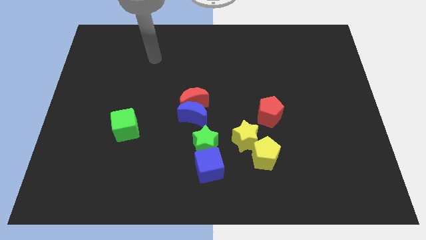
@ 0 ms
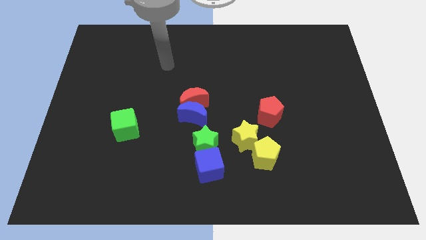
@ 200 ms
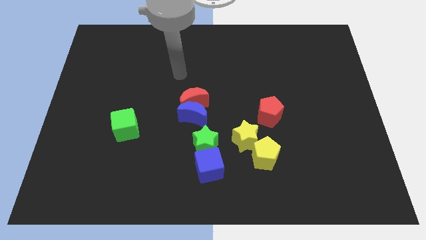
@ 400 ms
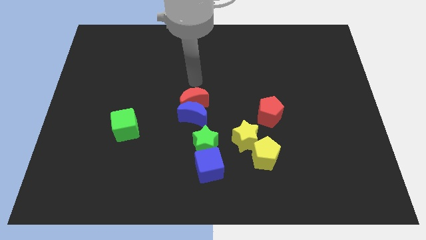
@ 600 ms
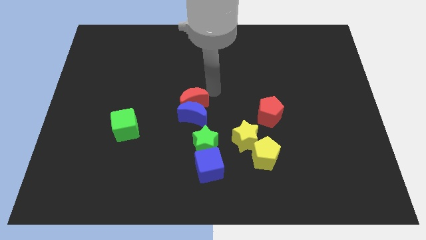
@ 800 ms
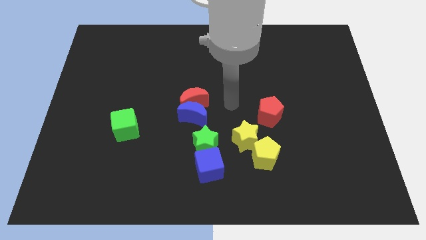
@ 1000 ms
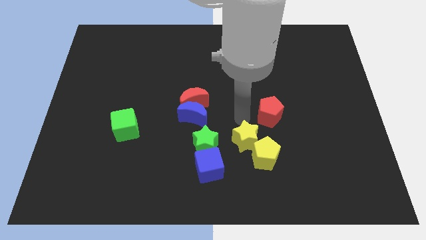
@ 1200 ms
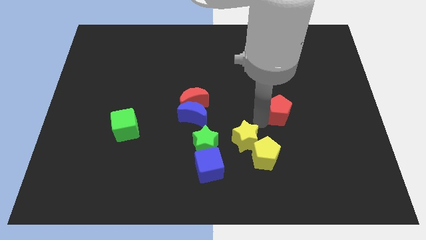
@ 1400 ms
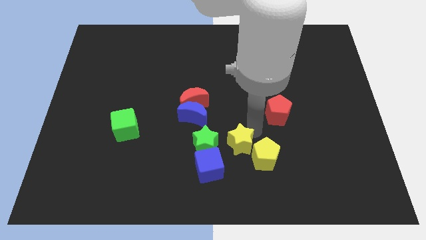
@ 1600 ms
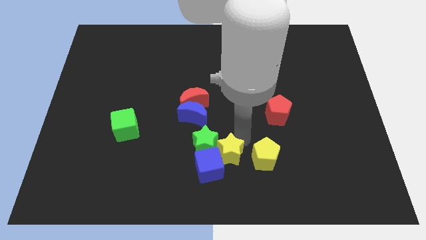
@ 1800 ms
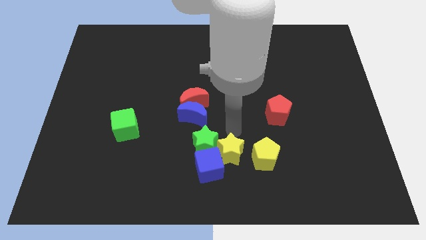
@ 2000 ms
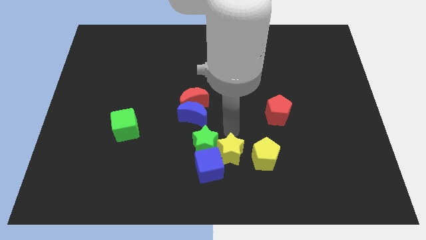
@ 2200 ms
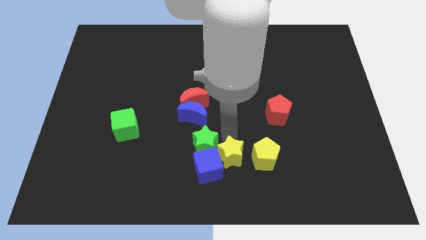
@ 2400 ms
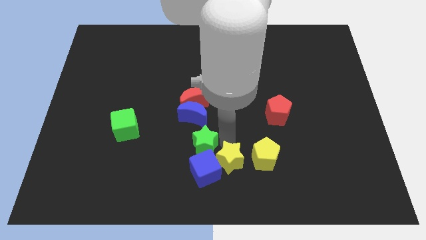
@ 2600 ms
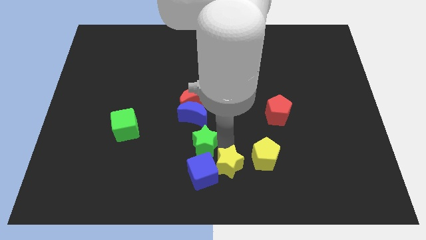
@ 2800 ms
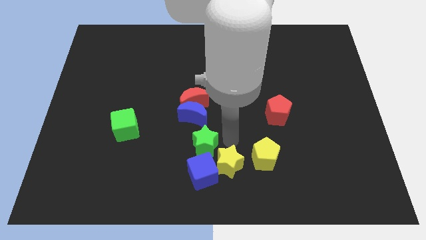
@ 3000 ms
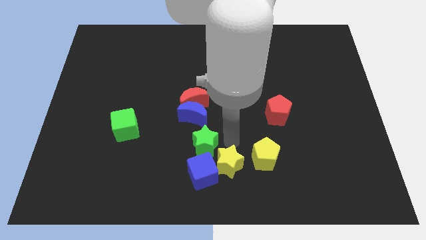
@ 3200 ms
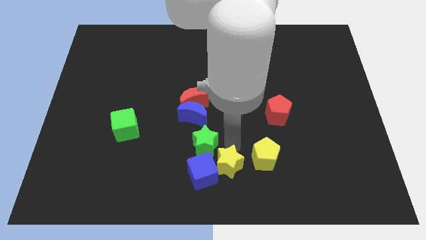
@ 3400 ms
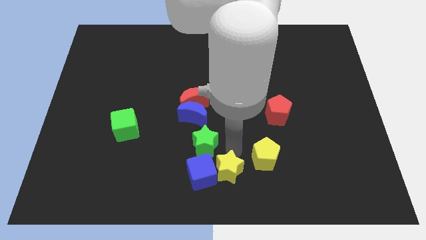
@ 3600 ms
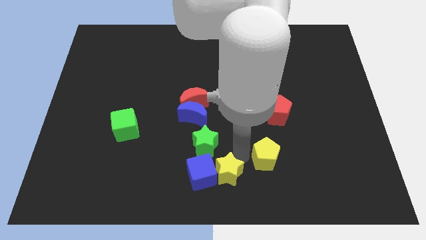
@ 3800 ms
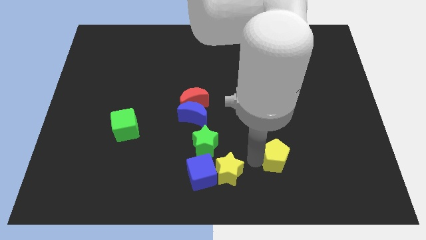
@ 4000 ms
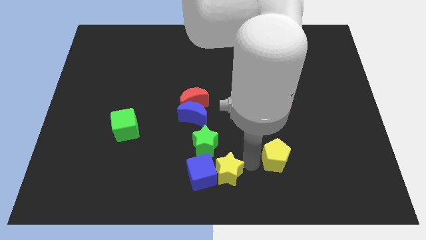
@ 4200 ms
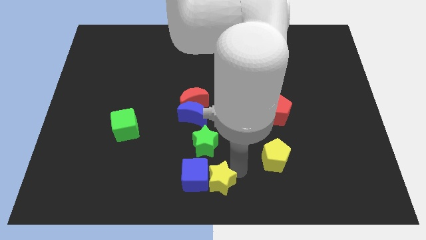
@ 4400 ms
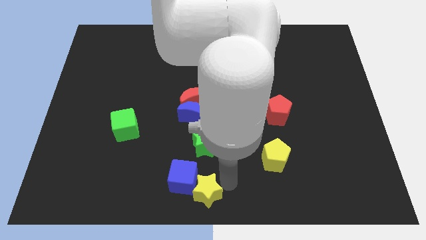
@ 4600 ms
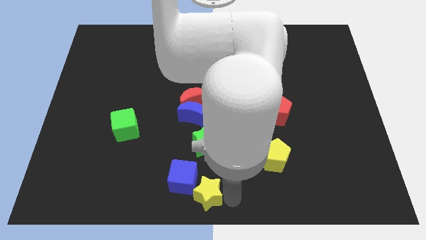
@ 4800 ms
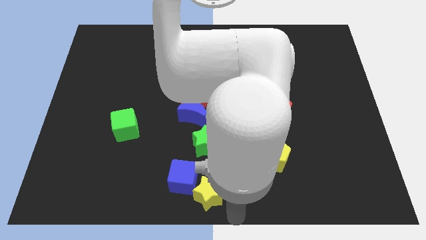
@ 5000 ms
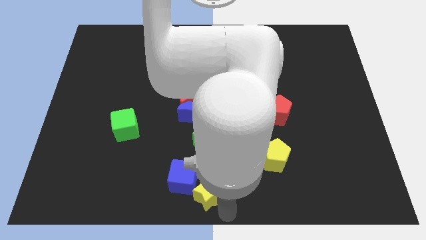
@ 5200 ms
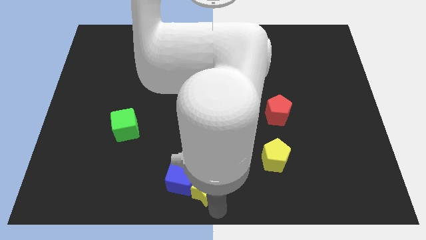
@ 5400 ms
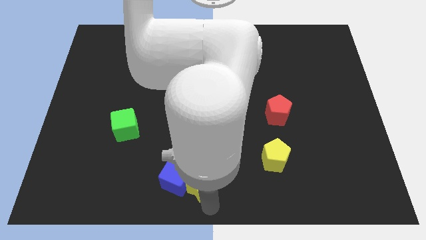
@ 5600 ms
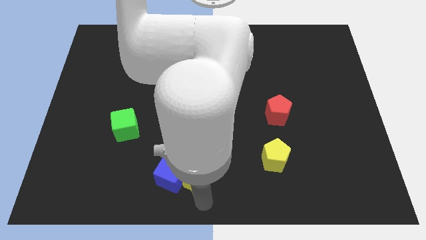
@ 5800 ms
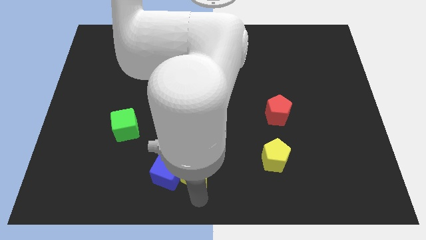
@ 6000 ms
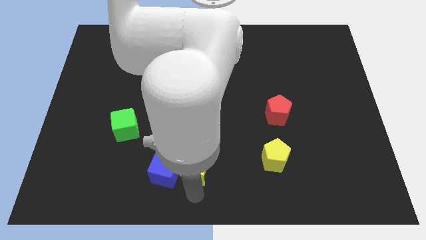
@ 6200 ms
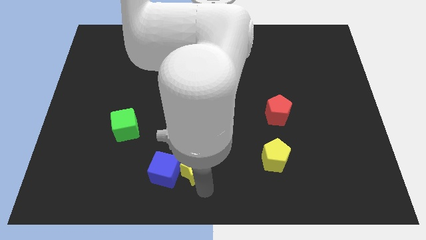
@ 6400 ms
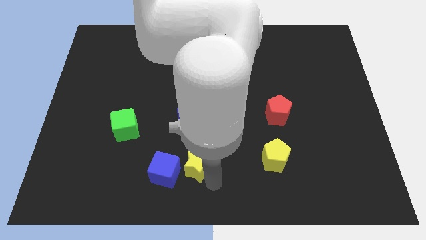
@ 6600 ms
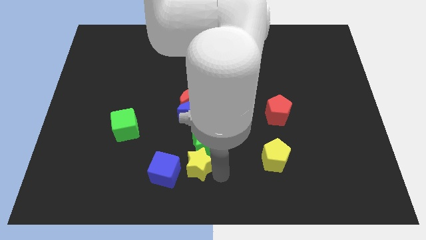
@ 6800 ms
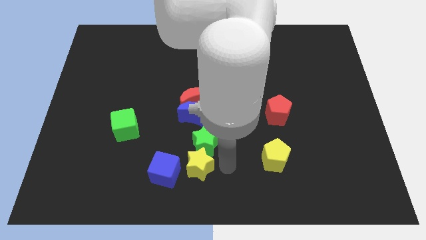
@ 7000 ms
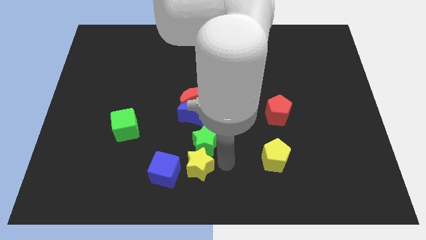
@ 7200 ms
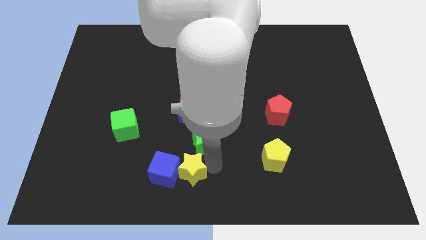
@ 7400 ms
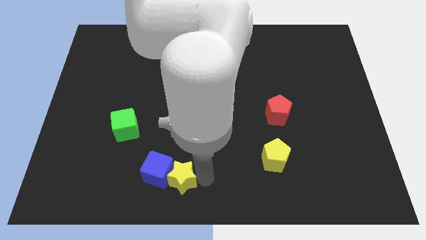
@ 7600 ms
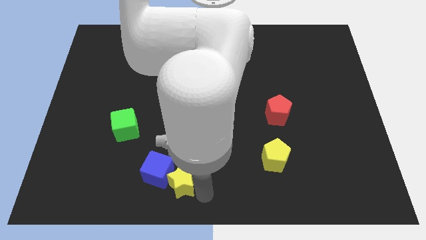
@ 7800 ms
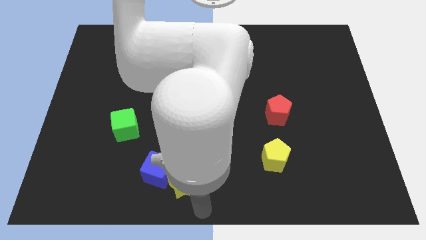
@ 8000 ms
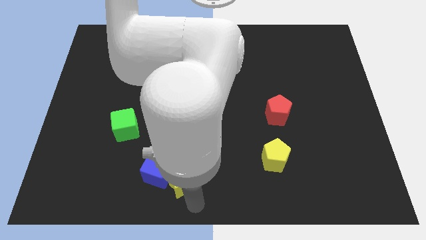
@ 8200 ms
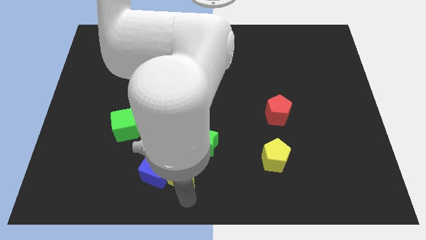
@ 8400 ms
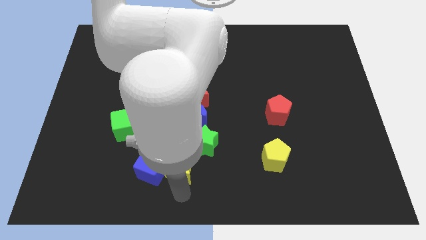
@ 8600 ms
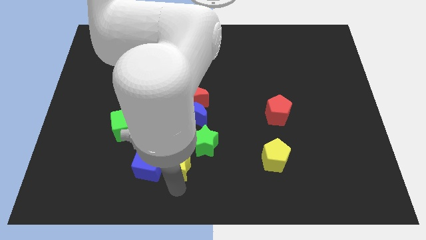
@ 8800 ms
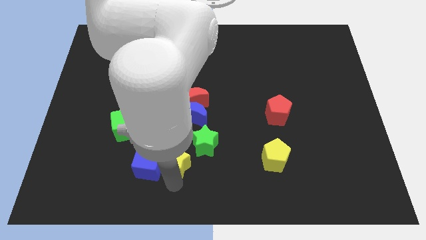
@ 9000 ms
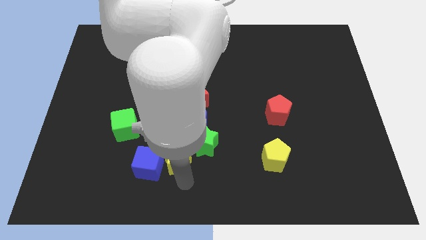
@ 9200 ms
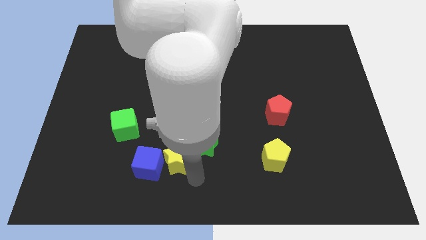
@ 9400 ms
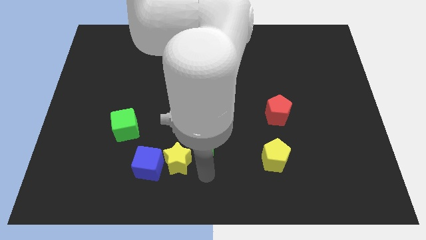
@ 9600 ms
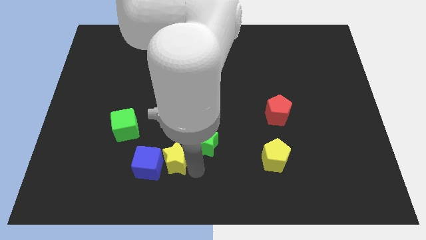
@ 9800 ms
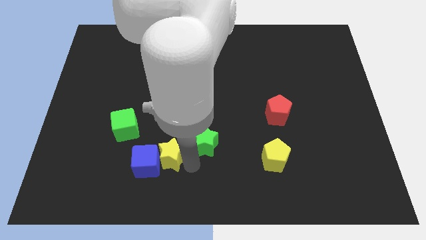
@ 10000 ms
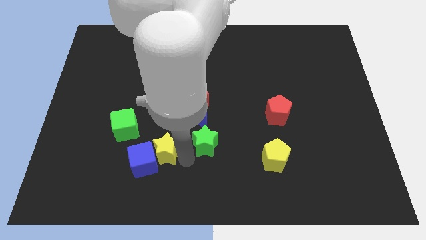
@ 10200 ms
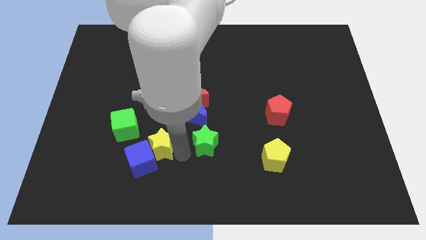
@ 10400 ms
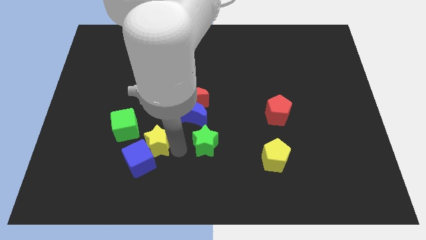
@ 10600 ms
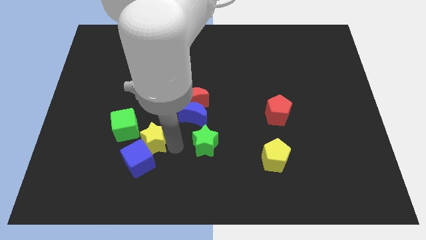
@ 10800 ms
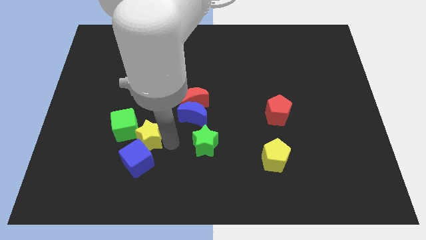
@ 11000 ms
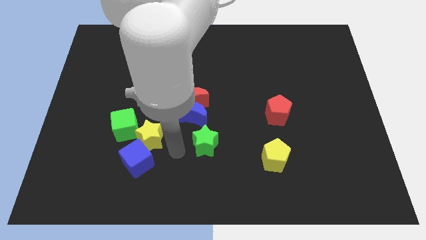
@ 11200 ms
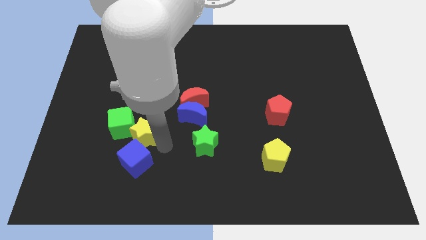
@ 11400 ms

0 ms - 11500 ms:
slide the yellow star next to the green cube

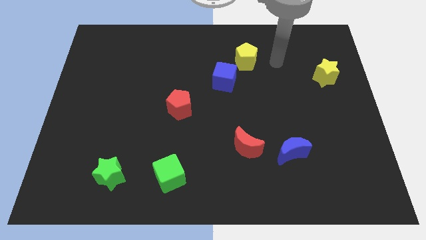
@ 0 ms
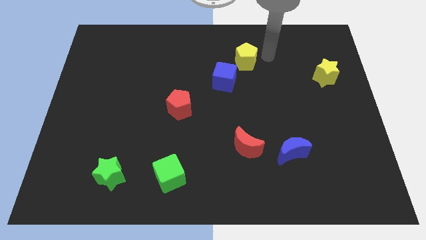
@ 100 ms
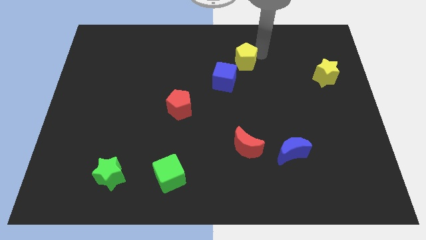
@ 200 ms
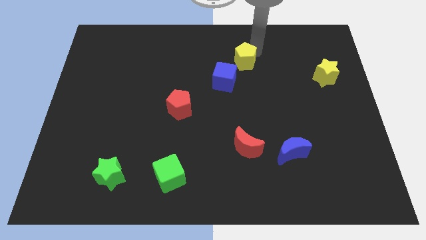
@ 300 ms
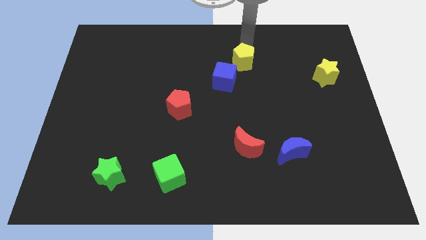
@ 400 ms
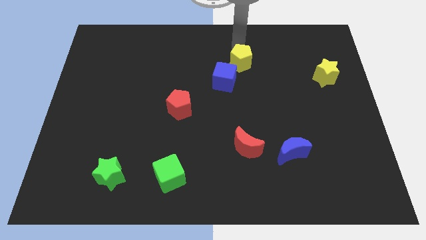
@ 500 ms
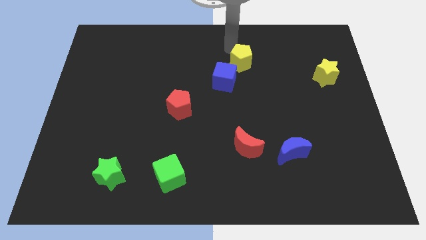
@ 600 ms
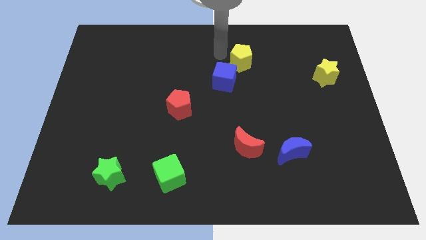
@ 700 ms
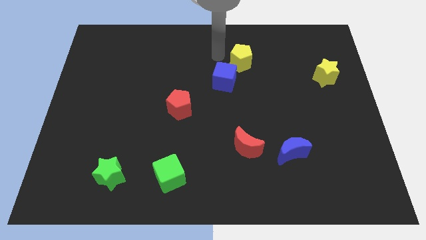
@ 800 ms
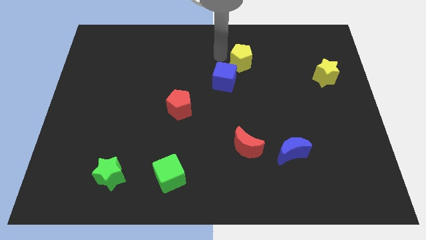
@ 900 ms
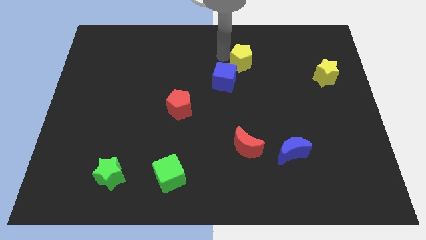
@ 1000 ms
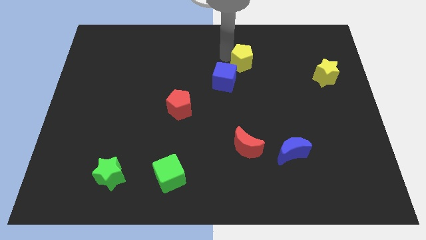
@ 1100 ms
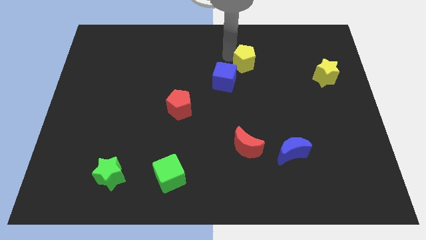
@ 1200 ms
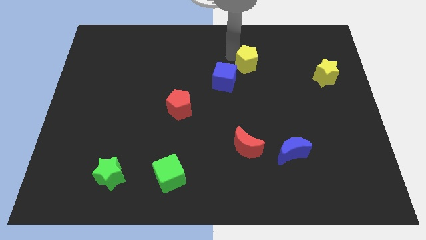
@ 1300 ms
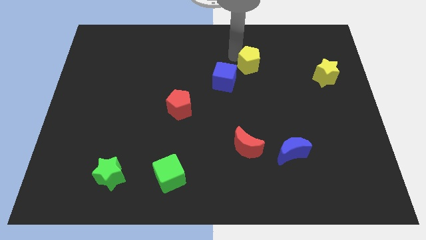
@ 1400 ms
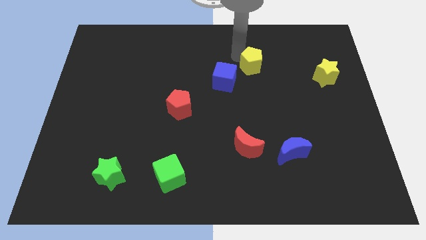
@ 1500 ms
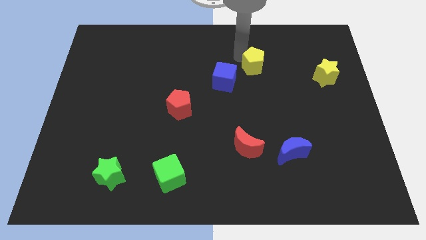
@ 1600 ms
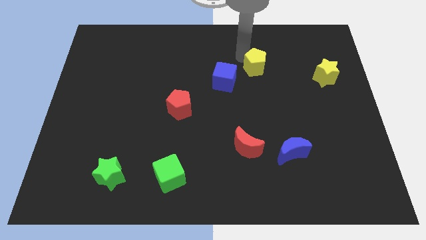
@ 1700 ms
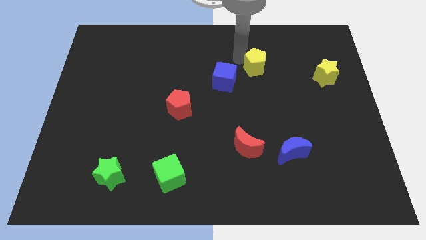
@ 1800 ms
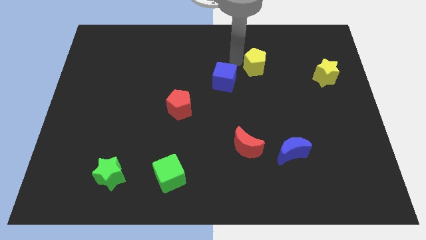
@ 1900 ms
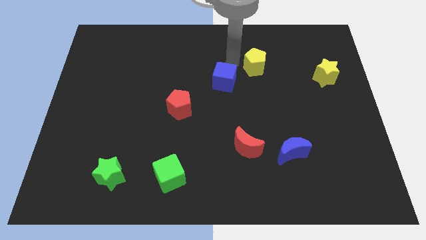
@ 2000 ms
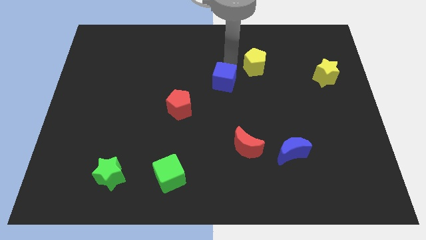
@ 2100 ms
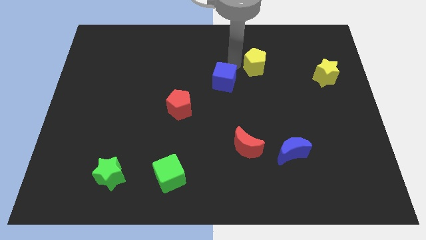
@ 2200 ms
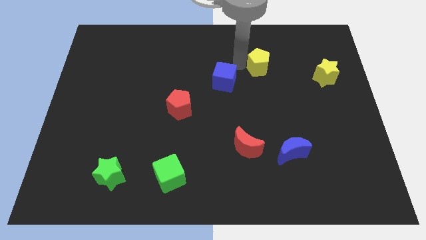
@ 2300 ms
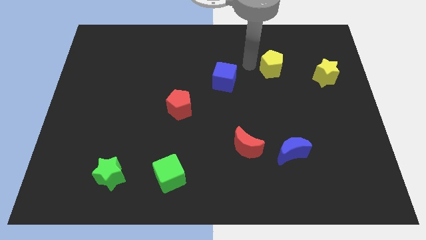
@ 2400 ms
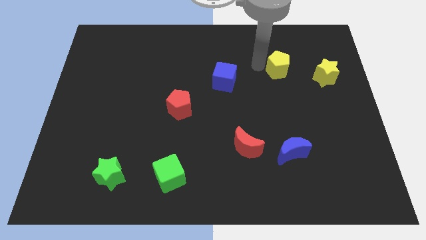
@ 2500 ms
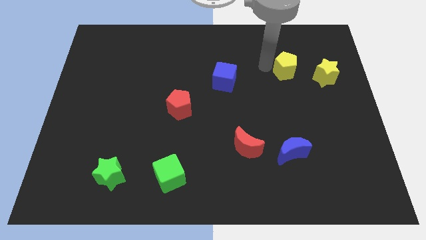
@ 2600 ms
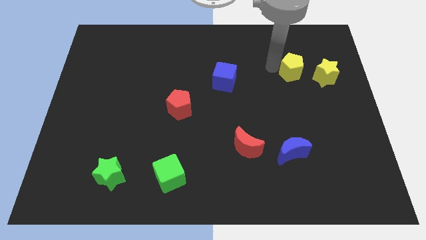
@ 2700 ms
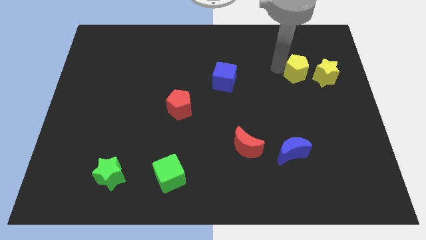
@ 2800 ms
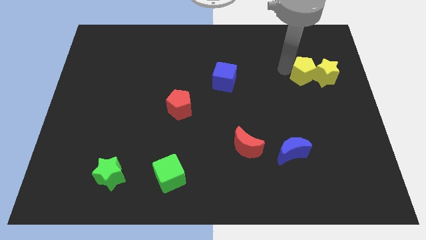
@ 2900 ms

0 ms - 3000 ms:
push the yellow pentagon to the yellow star
